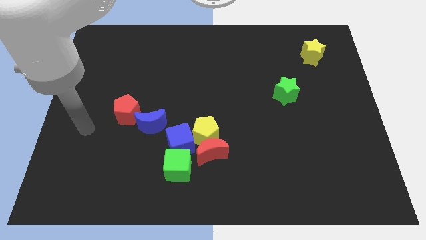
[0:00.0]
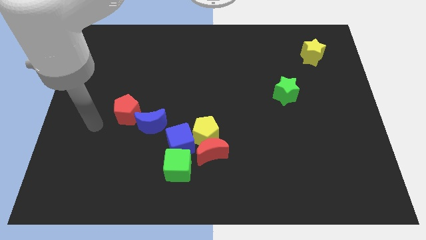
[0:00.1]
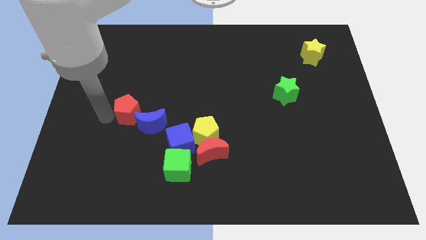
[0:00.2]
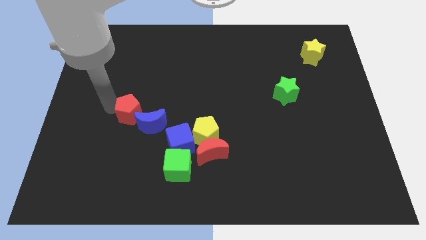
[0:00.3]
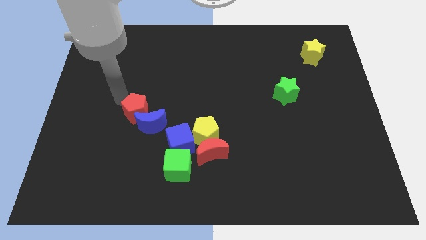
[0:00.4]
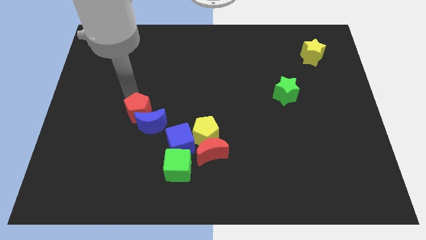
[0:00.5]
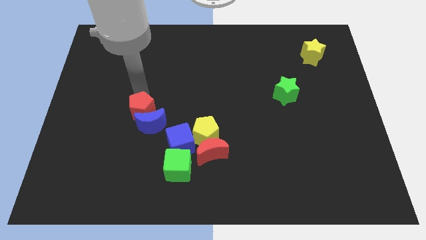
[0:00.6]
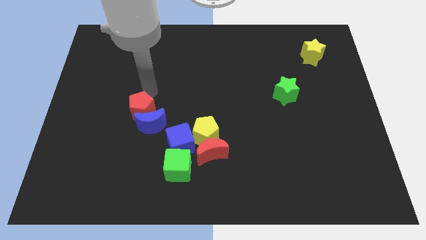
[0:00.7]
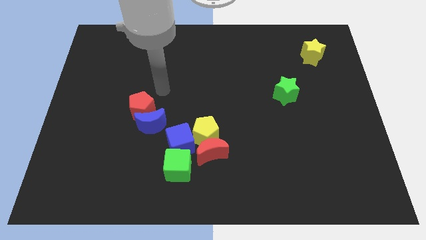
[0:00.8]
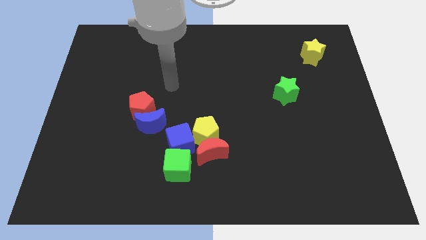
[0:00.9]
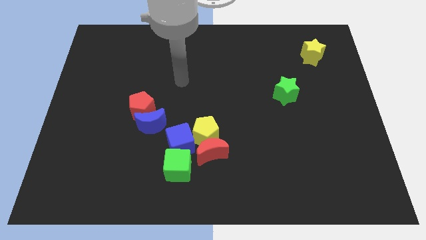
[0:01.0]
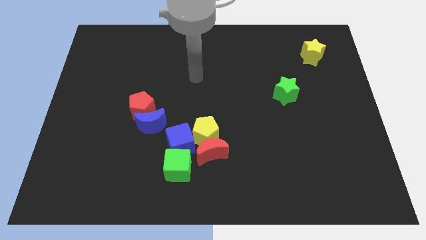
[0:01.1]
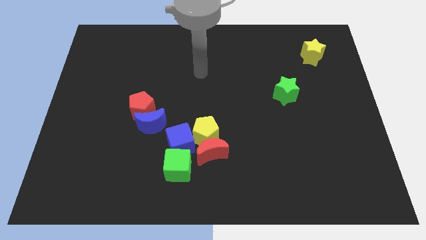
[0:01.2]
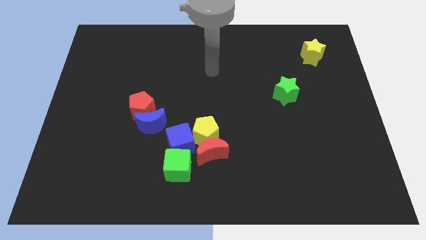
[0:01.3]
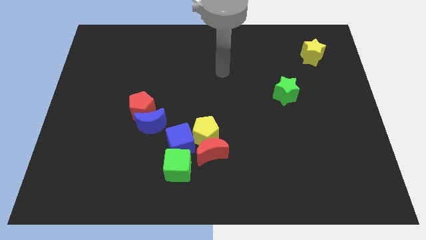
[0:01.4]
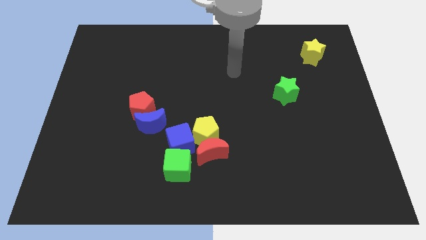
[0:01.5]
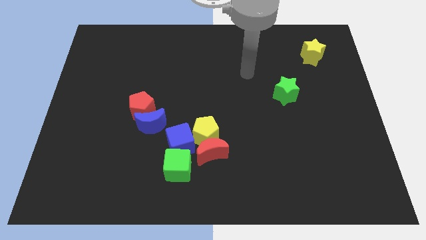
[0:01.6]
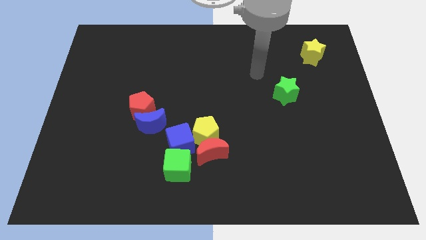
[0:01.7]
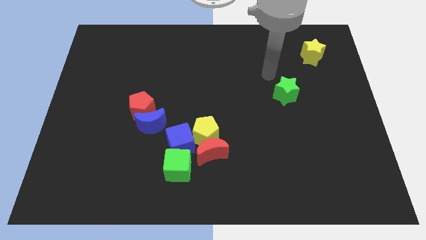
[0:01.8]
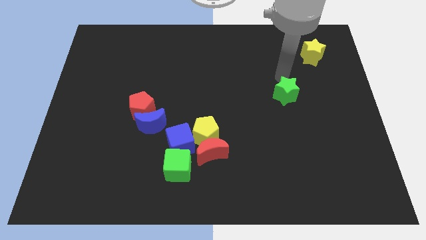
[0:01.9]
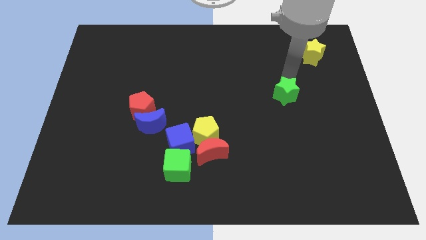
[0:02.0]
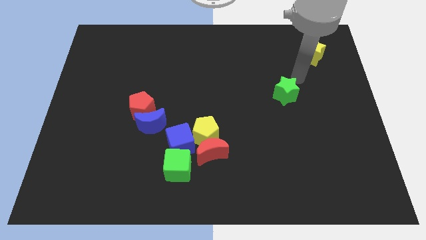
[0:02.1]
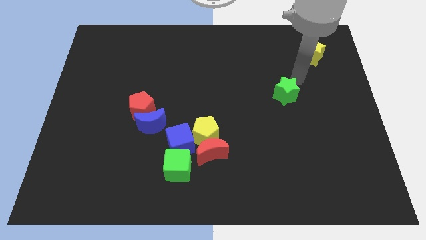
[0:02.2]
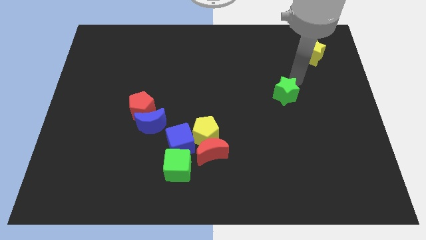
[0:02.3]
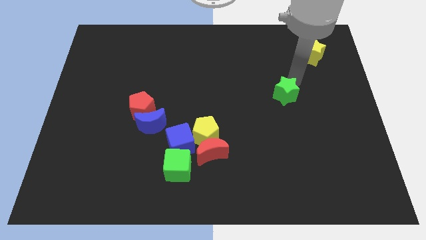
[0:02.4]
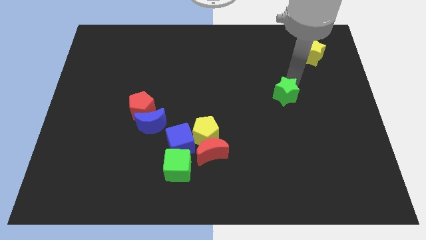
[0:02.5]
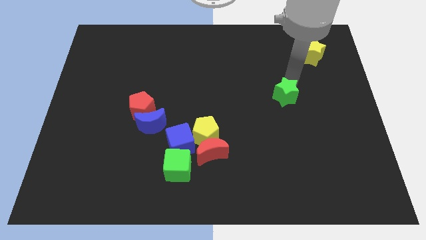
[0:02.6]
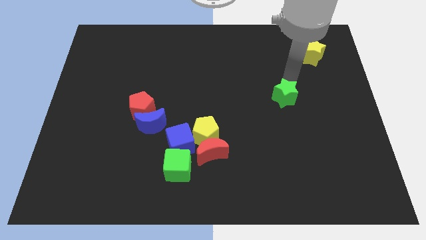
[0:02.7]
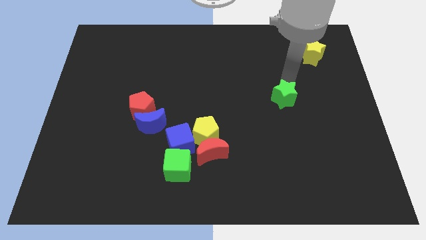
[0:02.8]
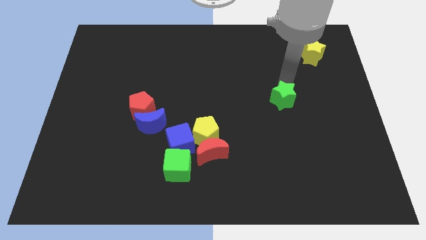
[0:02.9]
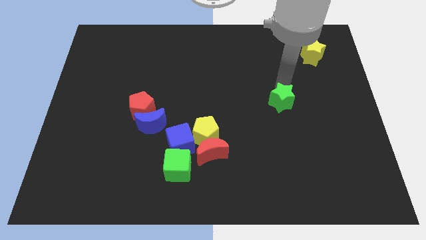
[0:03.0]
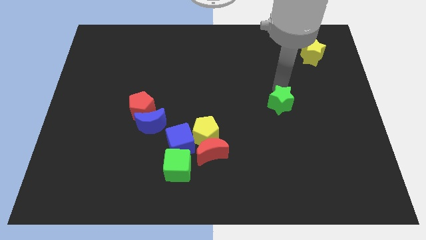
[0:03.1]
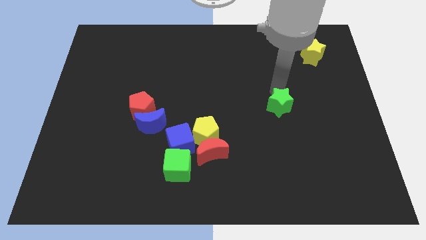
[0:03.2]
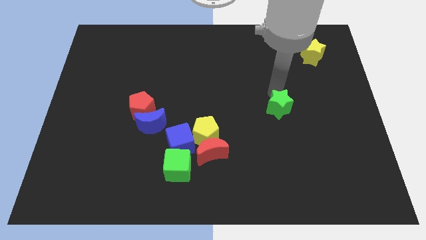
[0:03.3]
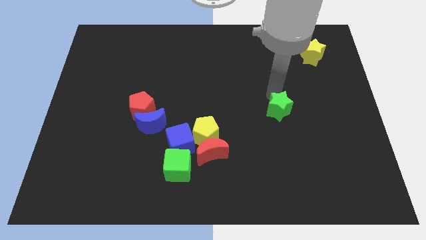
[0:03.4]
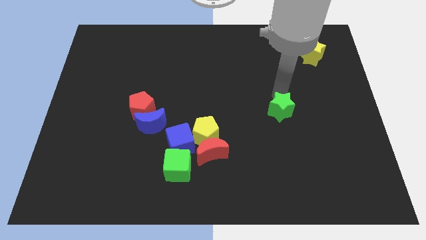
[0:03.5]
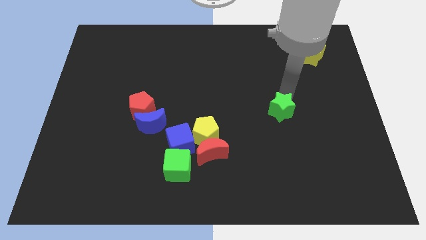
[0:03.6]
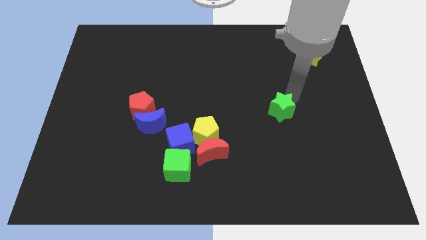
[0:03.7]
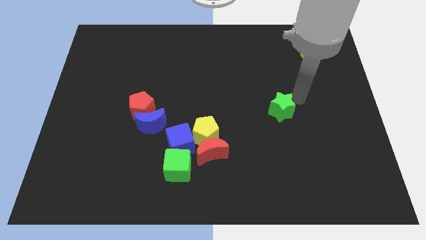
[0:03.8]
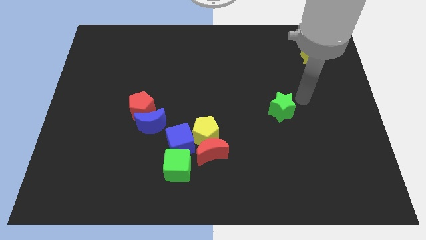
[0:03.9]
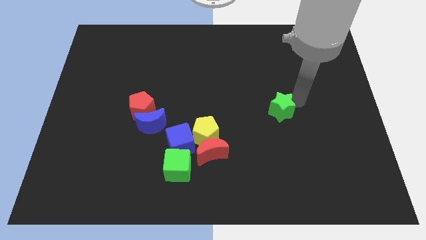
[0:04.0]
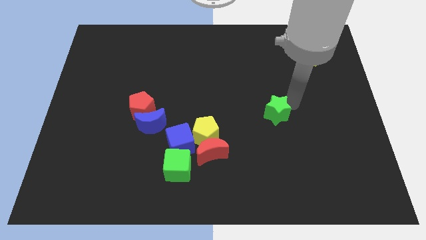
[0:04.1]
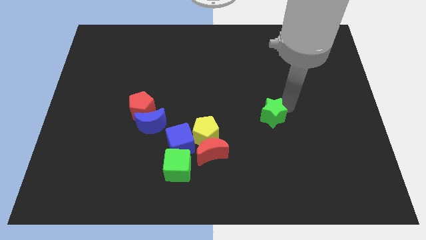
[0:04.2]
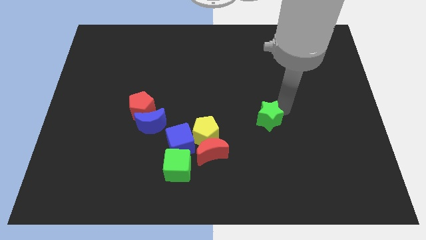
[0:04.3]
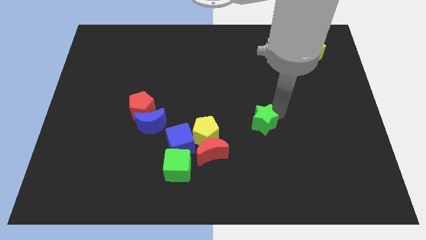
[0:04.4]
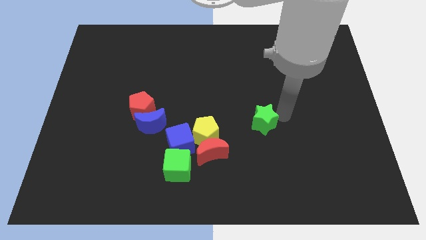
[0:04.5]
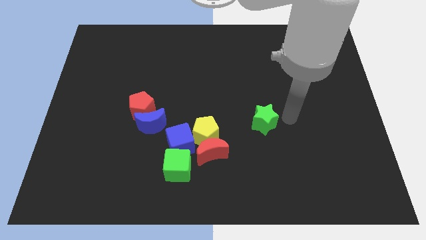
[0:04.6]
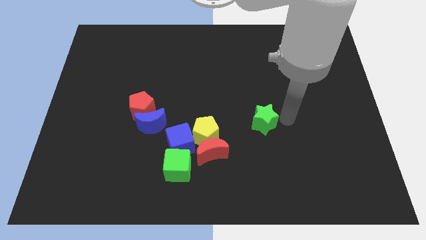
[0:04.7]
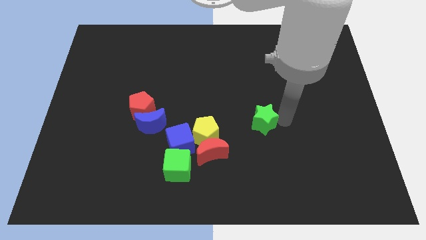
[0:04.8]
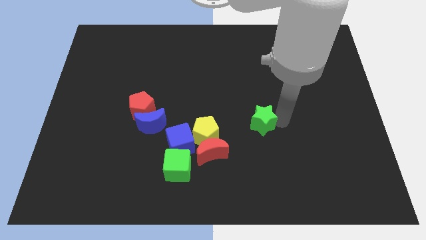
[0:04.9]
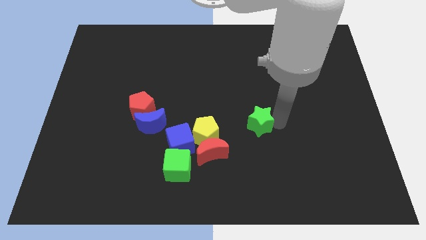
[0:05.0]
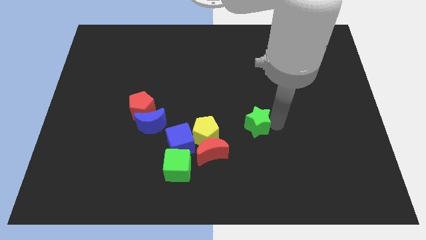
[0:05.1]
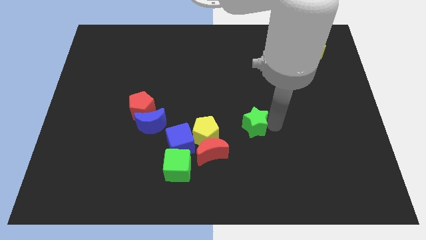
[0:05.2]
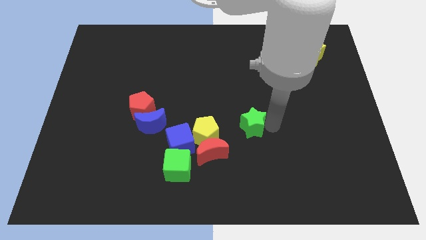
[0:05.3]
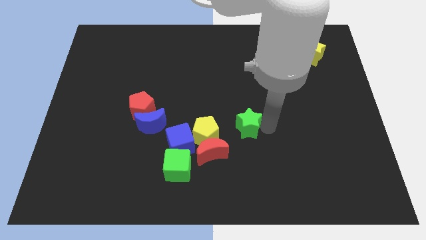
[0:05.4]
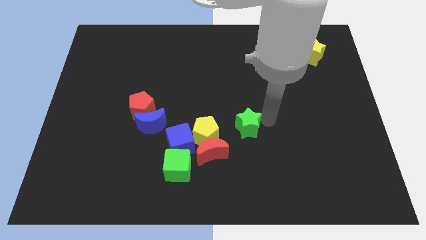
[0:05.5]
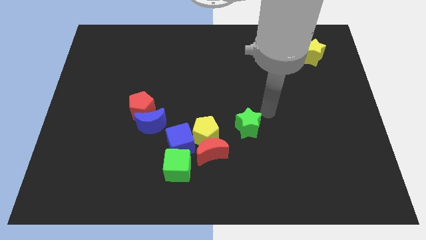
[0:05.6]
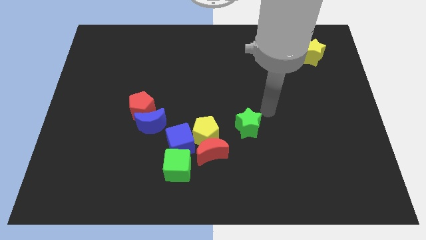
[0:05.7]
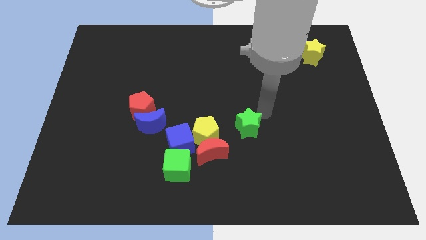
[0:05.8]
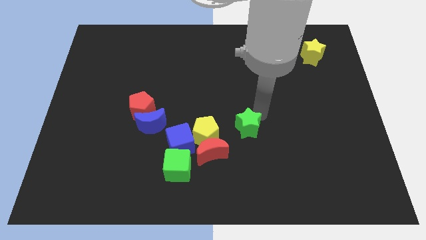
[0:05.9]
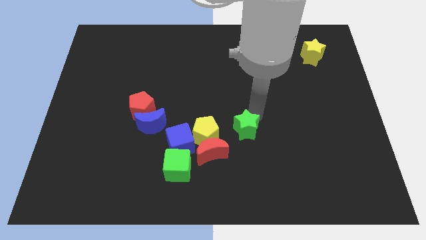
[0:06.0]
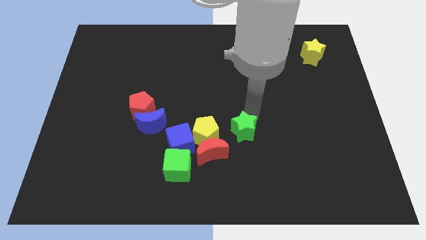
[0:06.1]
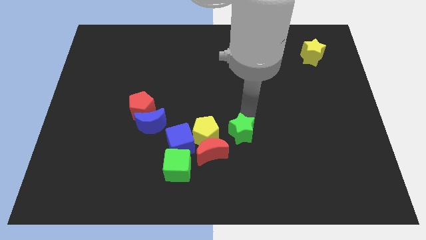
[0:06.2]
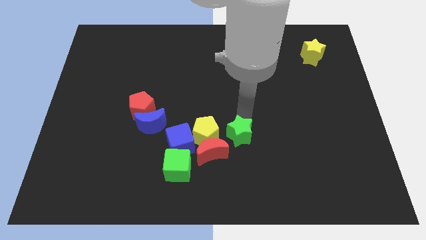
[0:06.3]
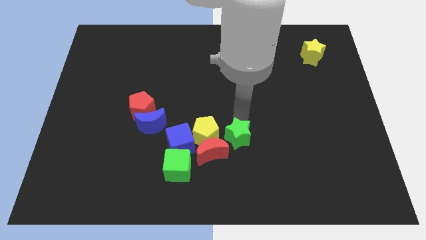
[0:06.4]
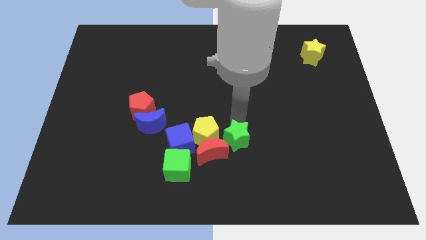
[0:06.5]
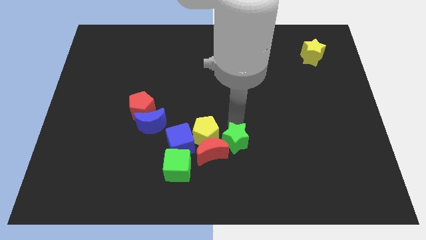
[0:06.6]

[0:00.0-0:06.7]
slide the green star towards the red moon

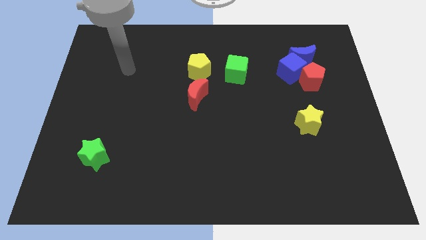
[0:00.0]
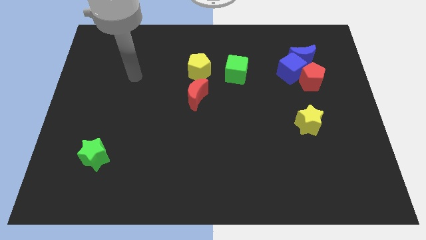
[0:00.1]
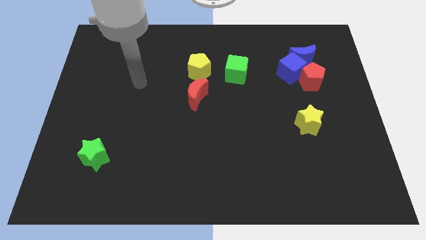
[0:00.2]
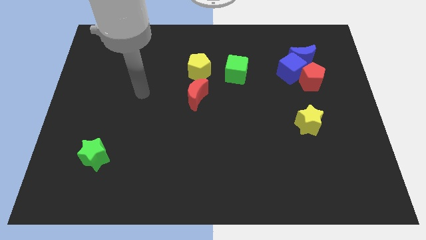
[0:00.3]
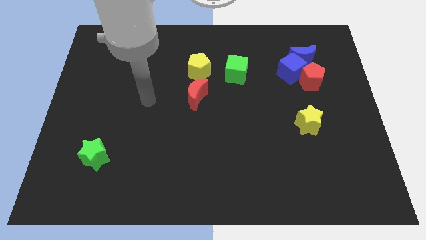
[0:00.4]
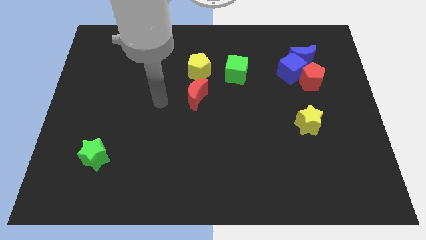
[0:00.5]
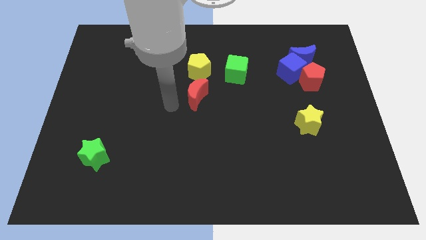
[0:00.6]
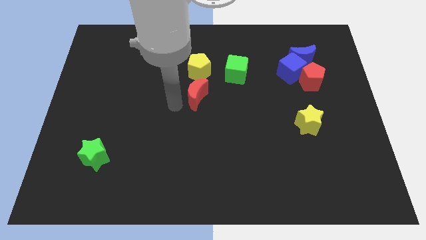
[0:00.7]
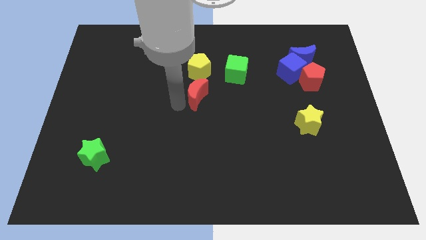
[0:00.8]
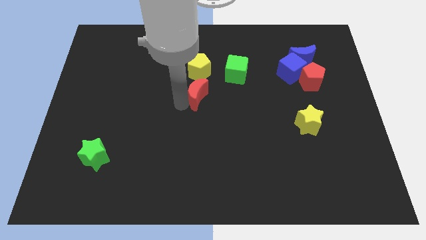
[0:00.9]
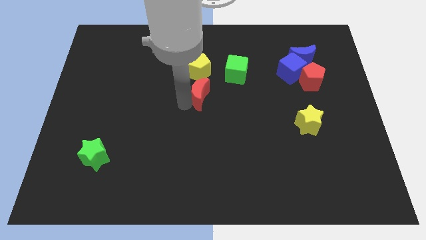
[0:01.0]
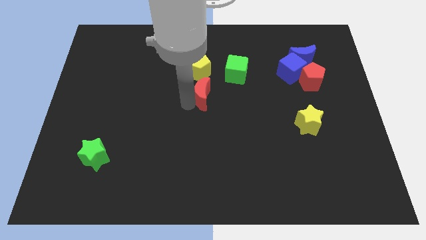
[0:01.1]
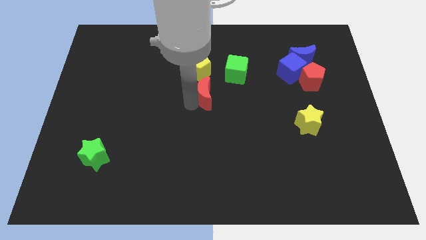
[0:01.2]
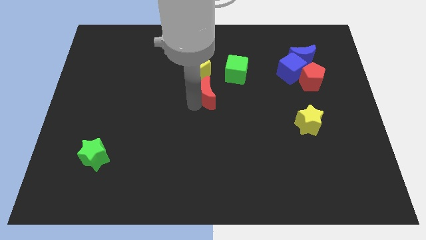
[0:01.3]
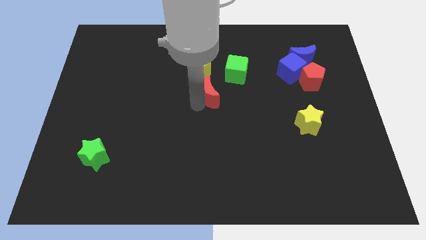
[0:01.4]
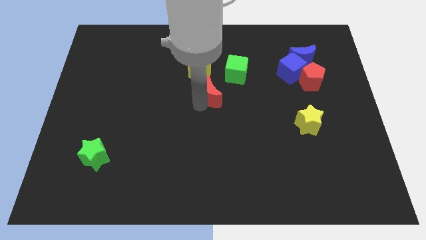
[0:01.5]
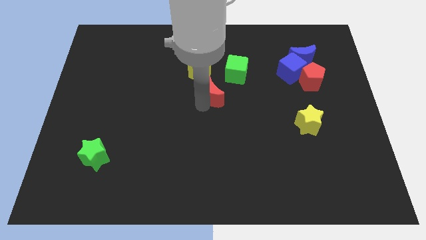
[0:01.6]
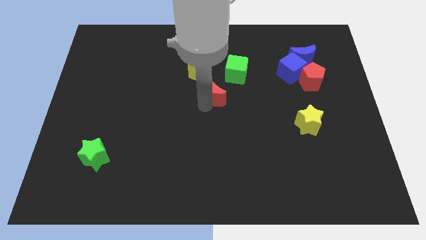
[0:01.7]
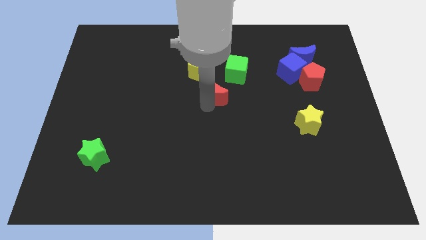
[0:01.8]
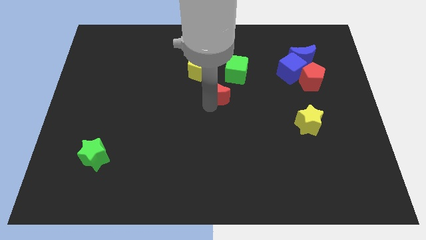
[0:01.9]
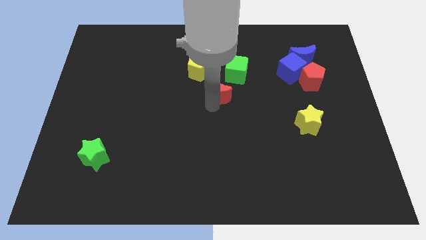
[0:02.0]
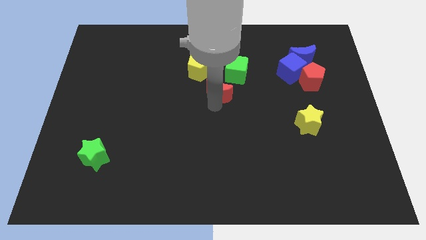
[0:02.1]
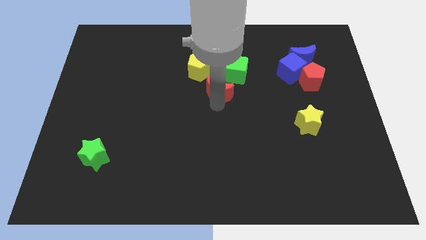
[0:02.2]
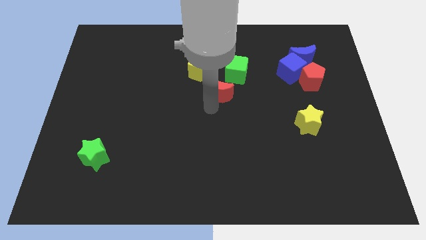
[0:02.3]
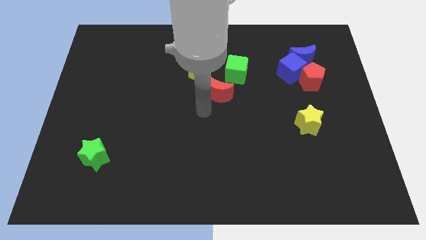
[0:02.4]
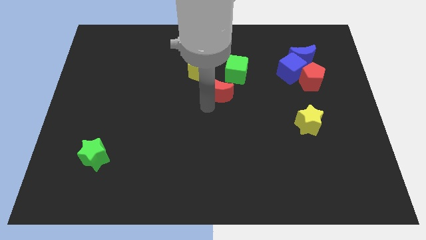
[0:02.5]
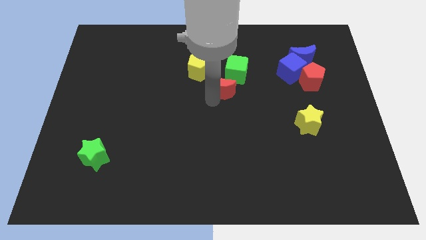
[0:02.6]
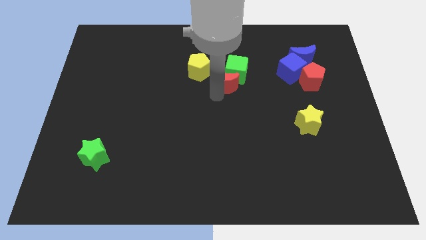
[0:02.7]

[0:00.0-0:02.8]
put the red moon to the green cube
